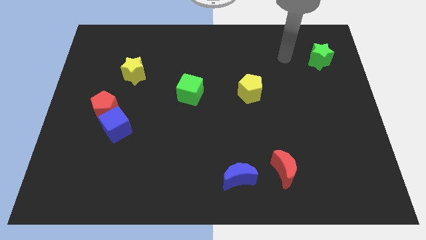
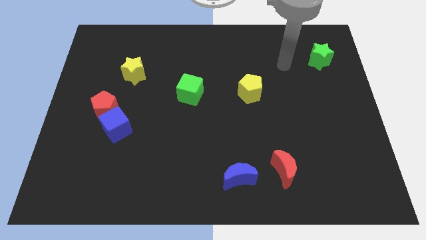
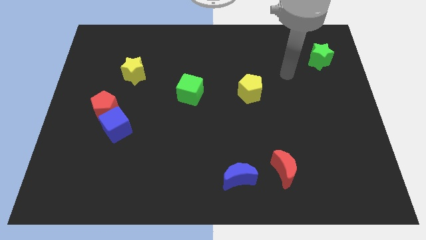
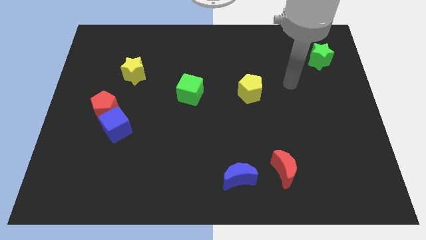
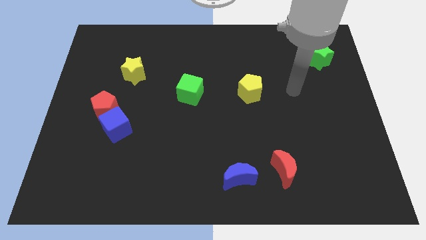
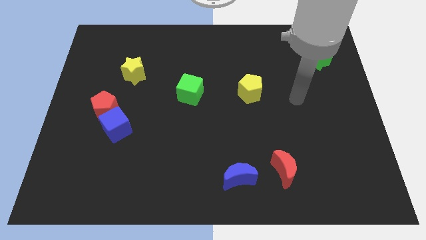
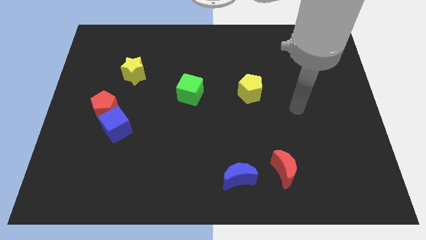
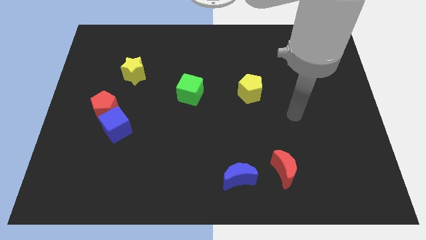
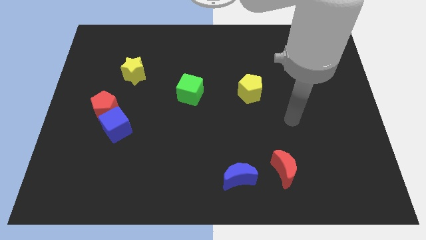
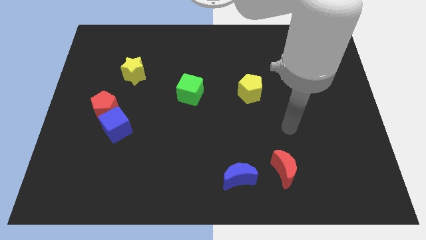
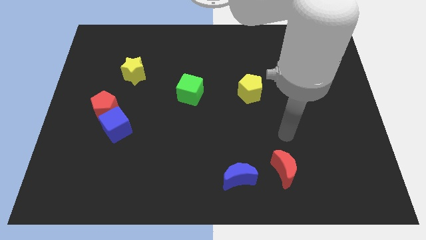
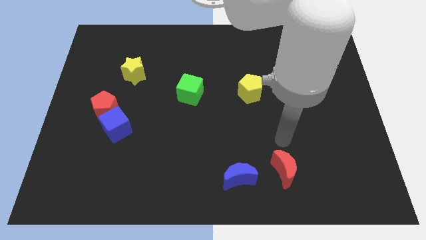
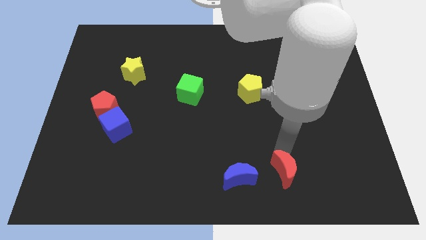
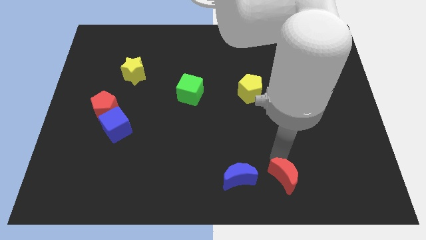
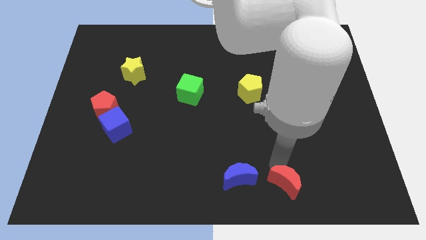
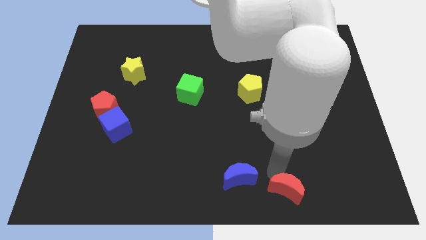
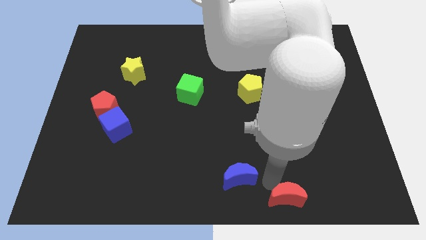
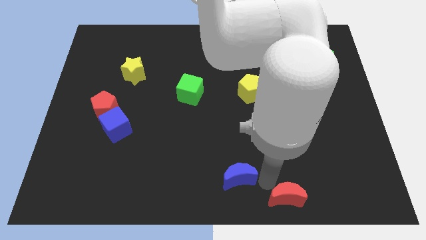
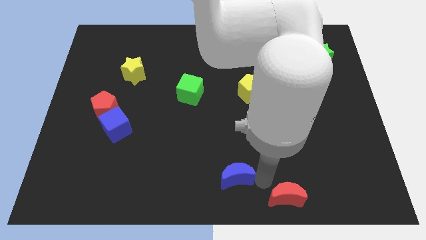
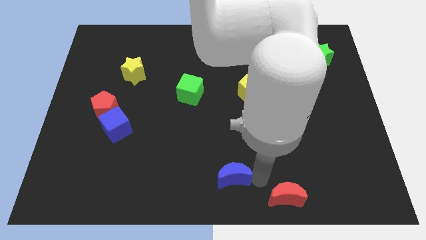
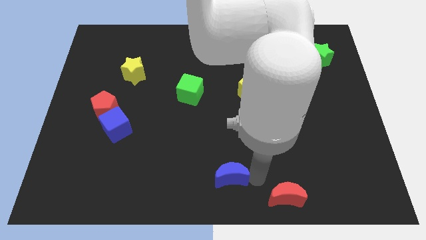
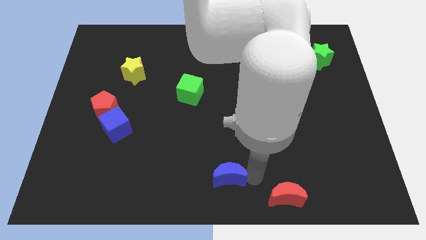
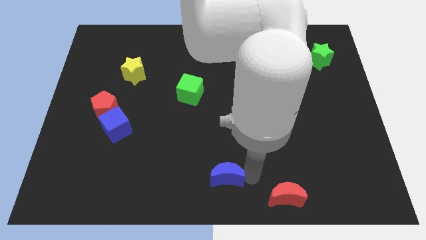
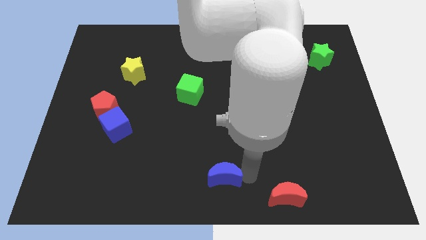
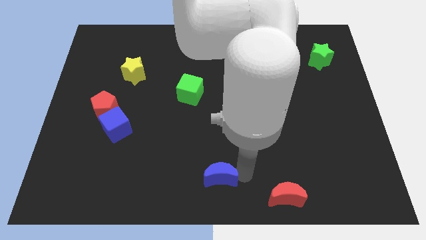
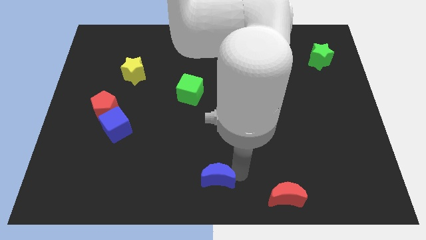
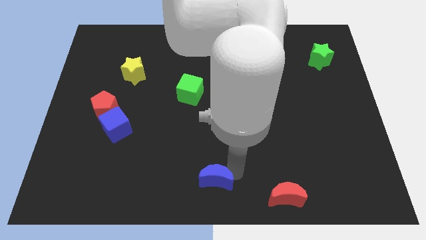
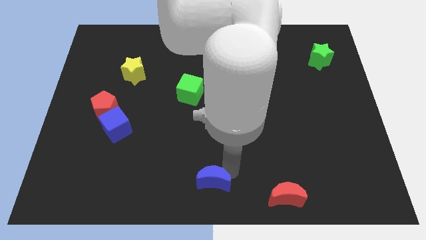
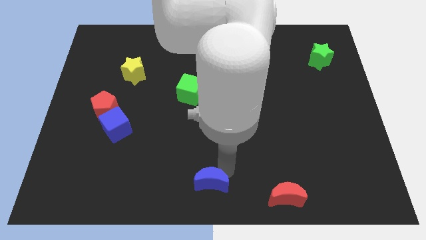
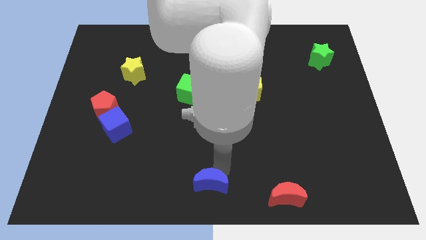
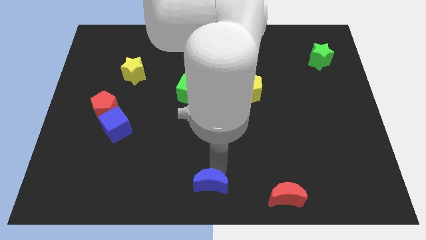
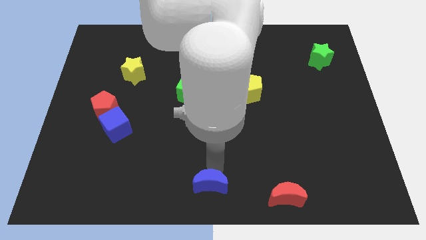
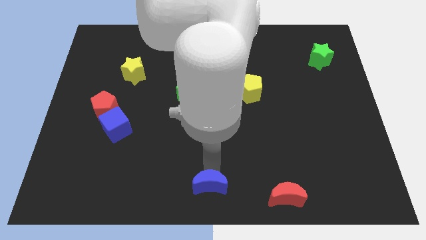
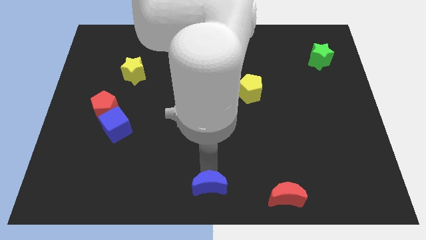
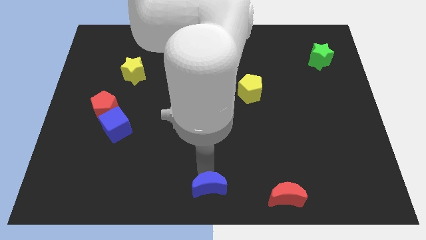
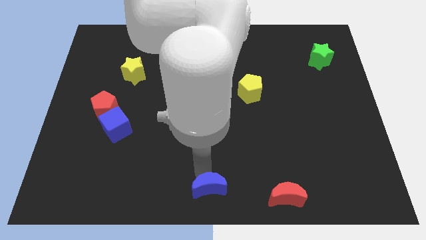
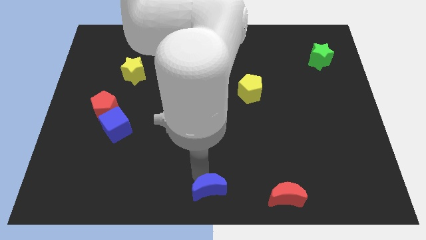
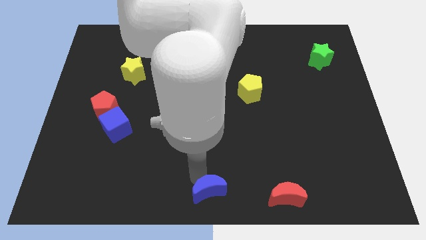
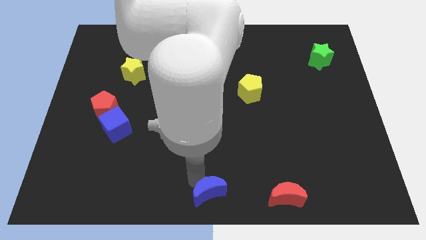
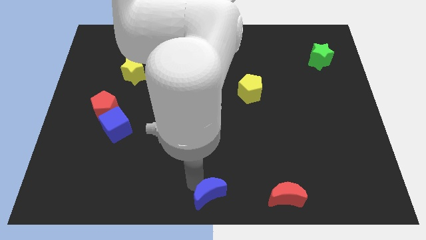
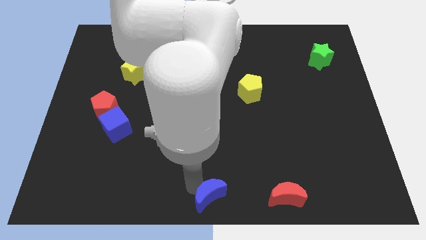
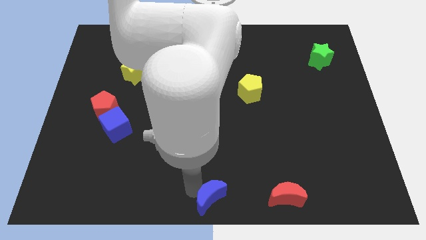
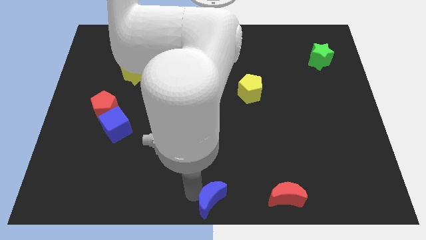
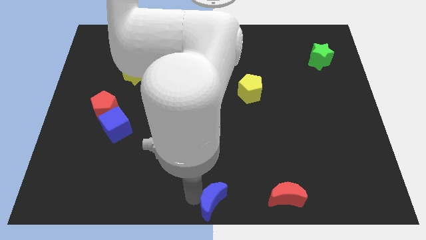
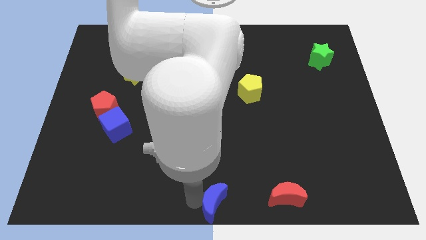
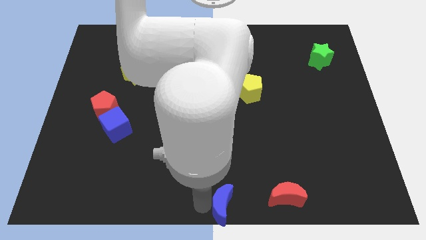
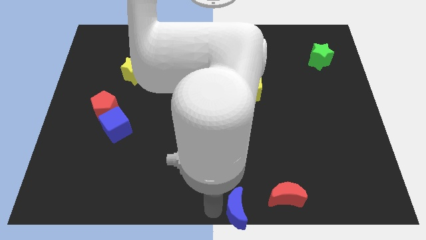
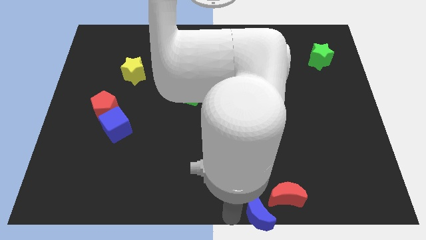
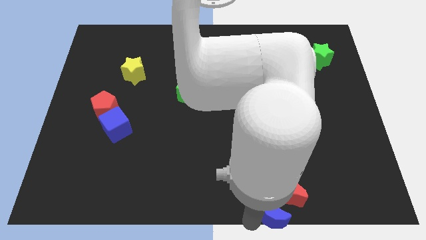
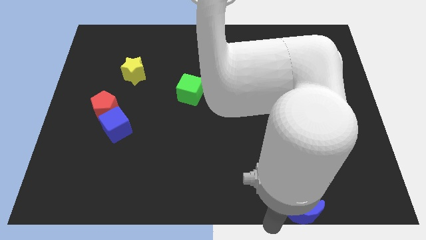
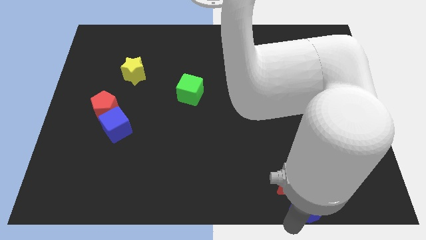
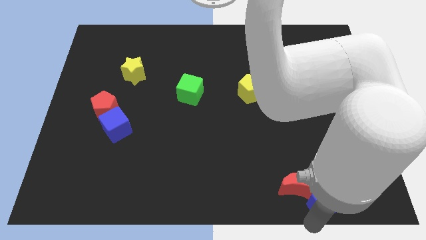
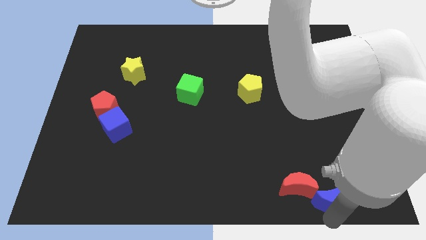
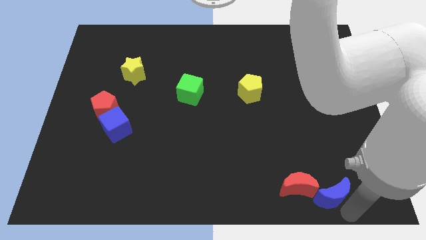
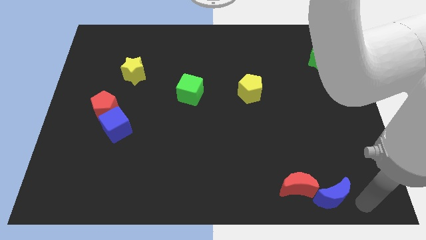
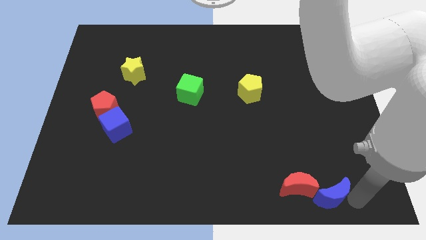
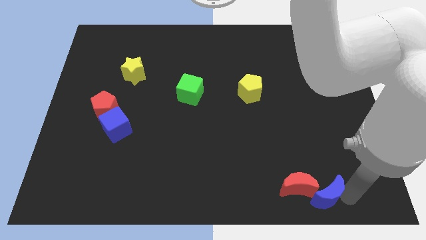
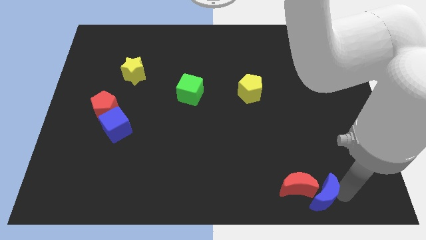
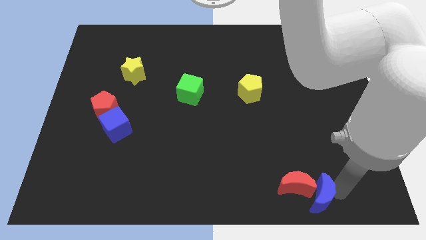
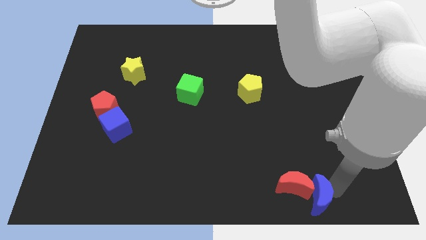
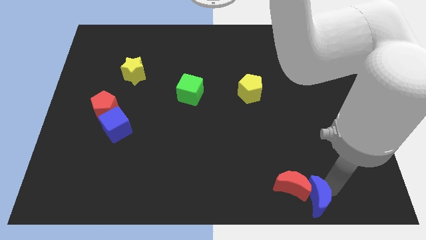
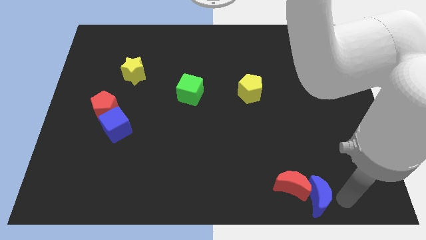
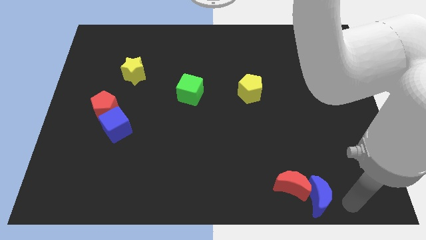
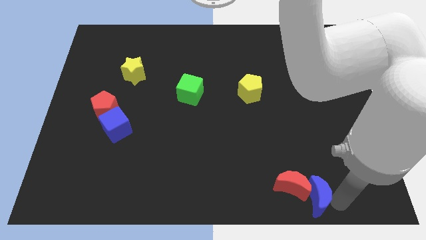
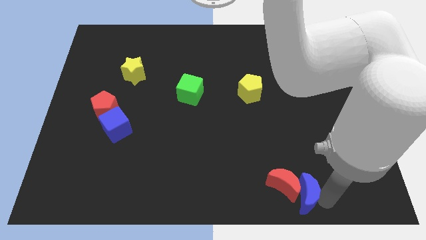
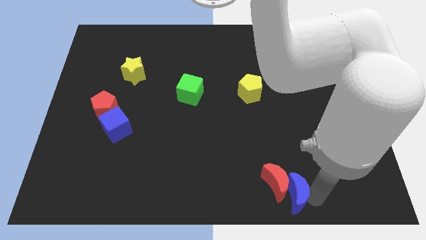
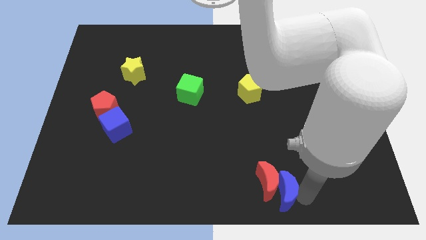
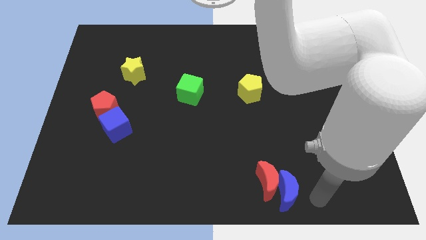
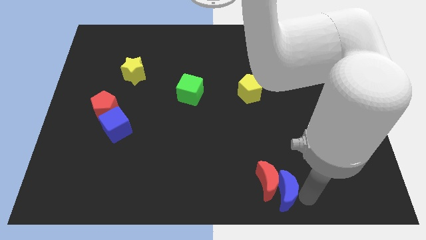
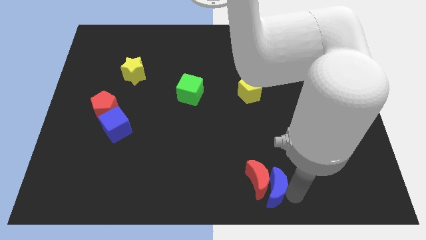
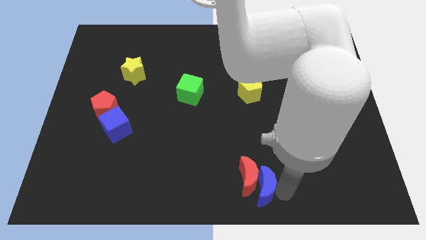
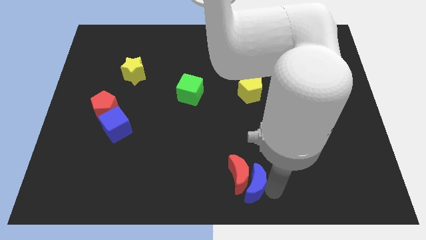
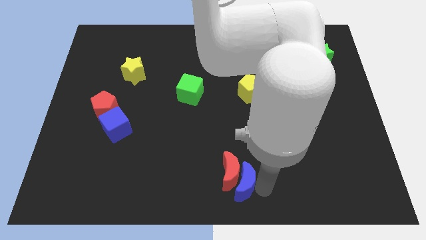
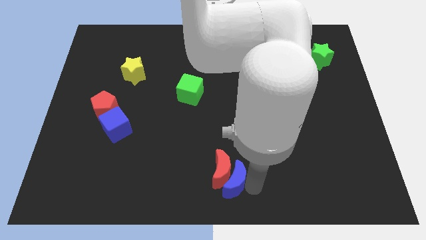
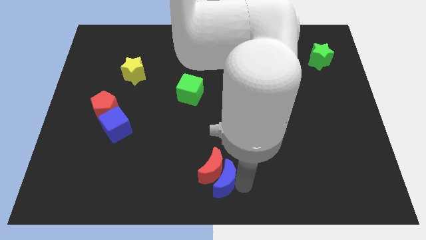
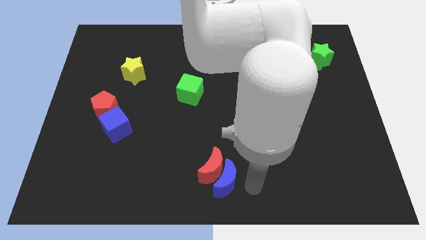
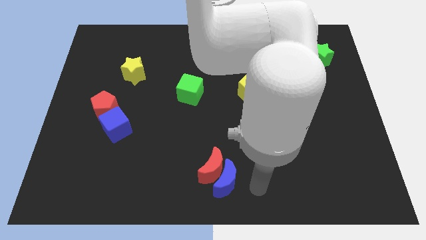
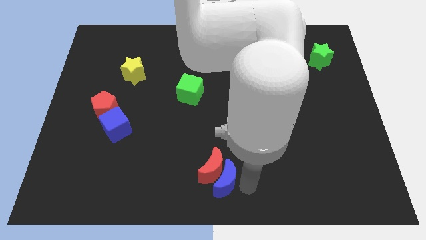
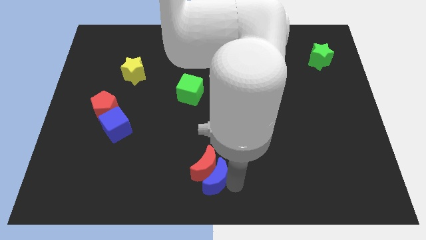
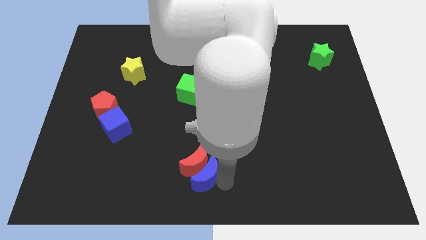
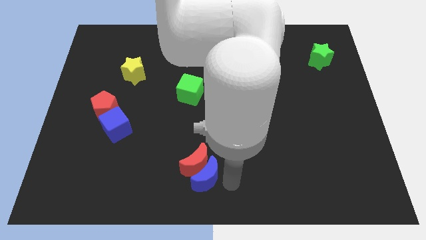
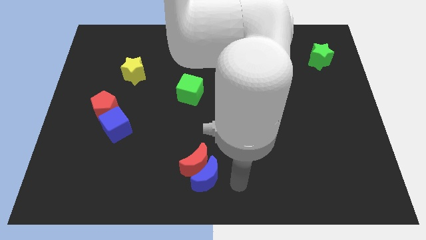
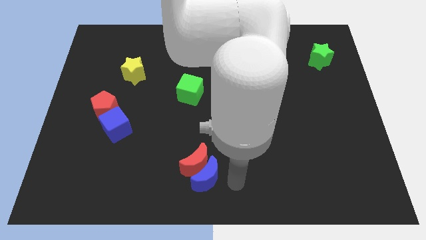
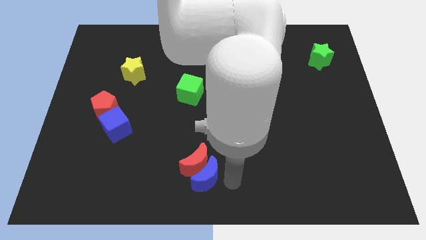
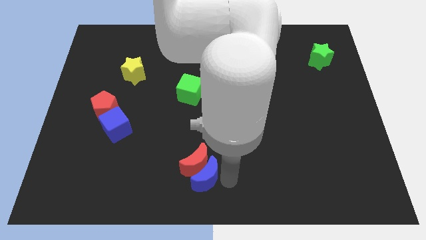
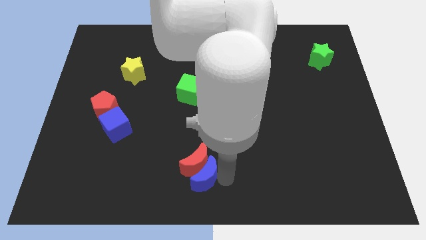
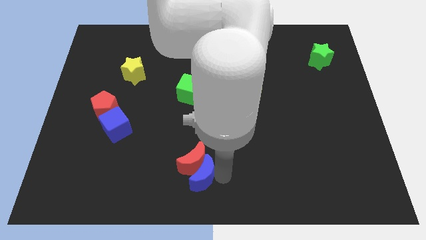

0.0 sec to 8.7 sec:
move the blue moon slightly to the left
